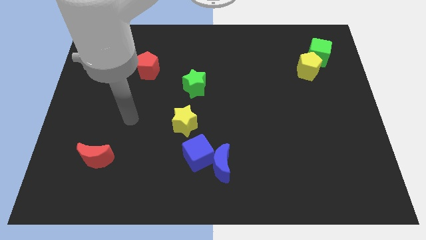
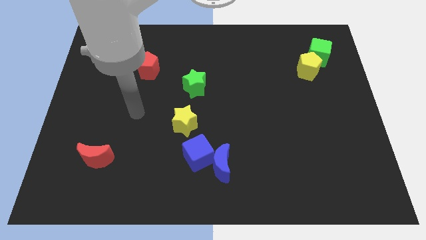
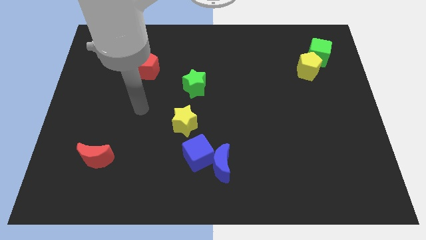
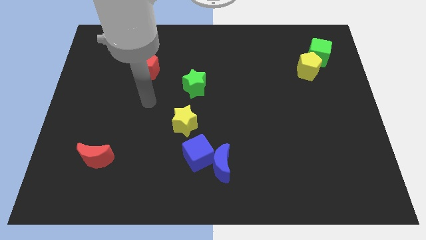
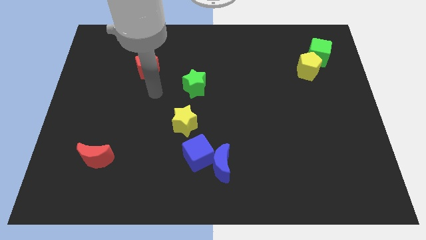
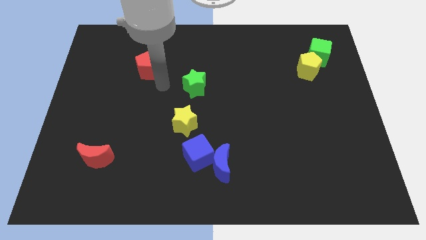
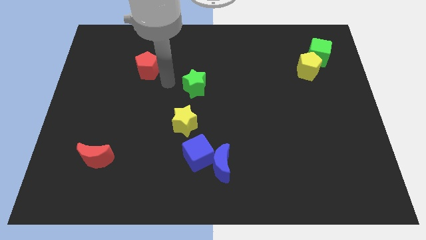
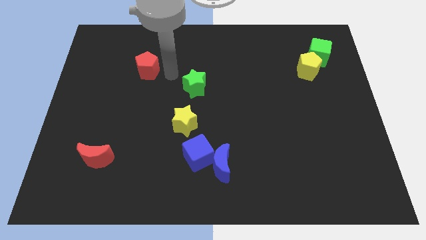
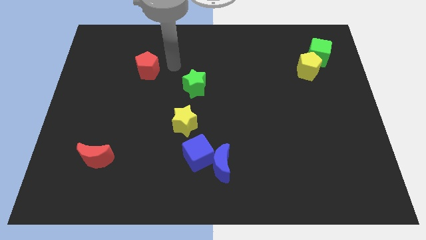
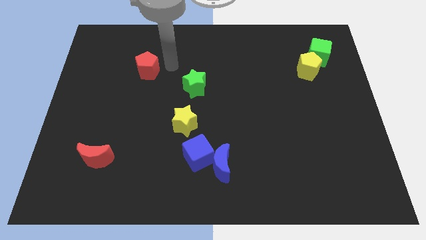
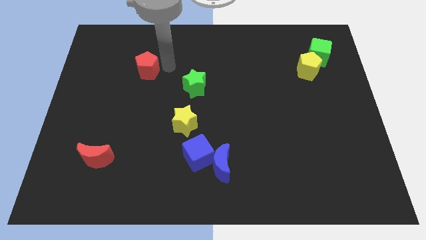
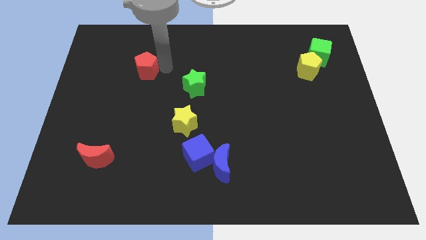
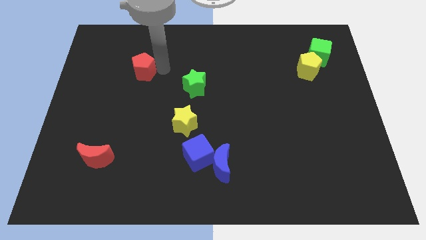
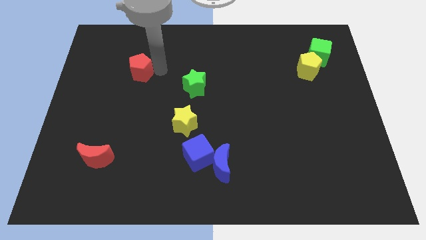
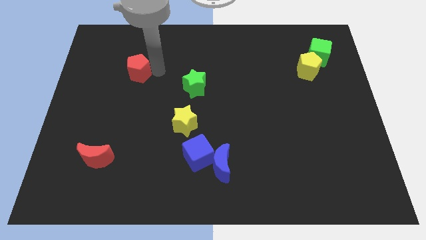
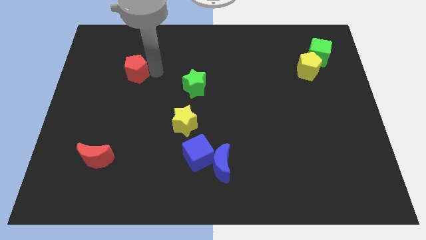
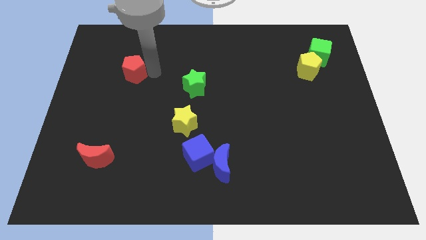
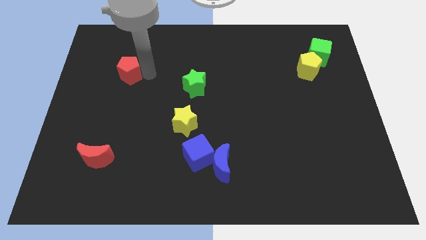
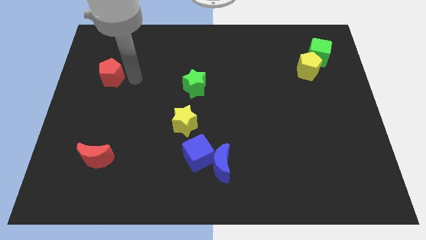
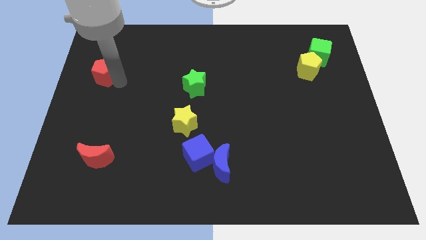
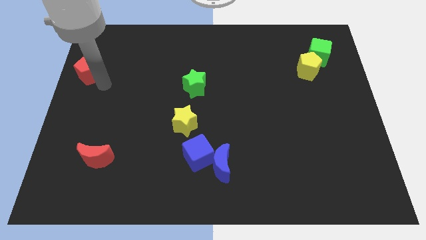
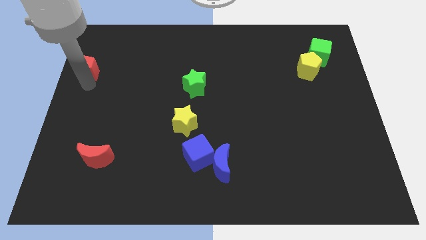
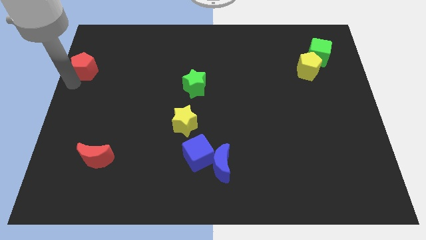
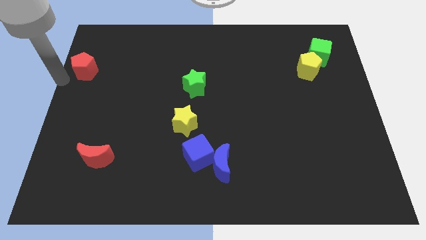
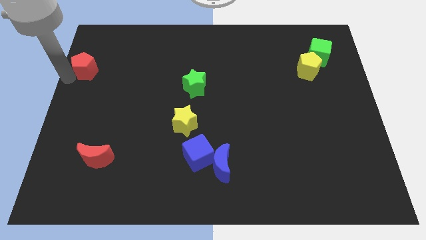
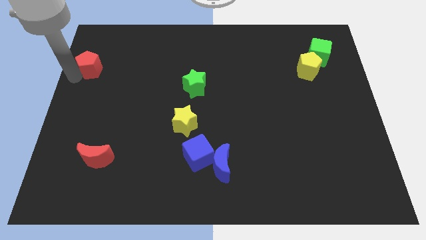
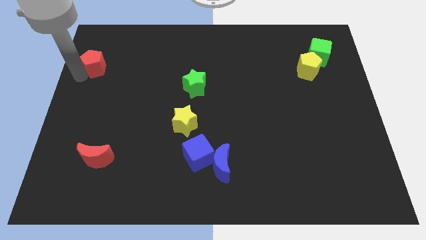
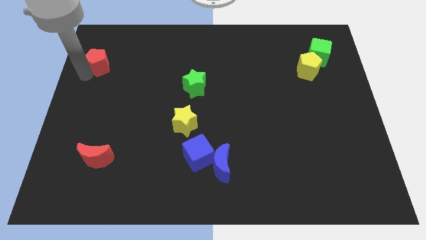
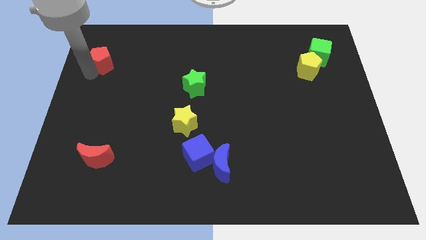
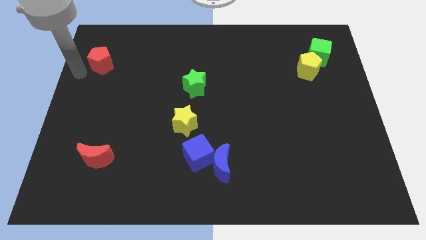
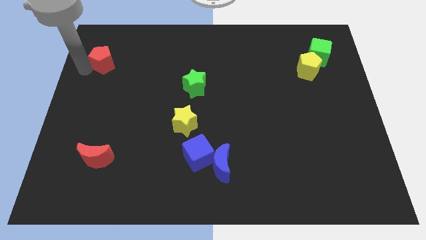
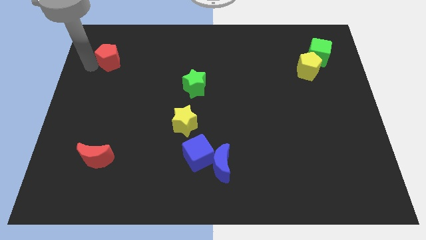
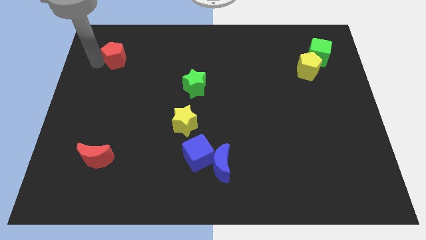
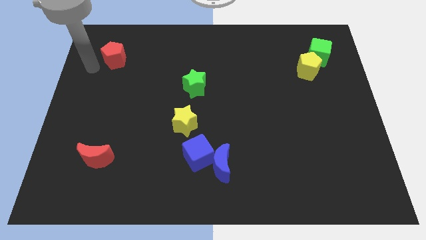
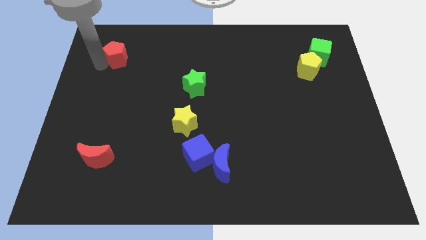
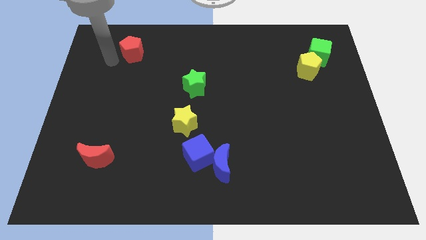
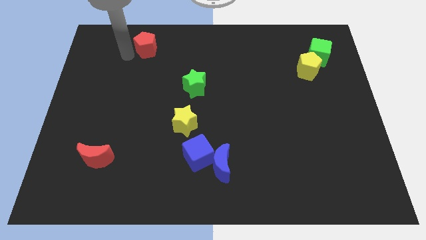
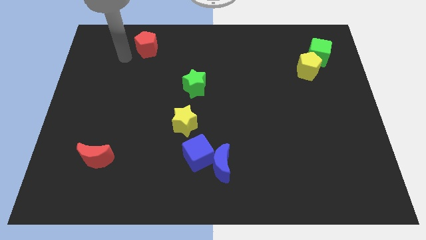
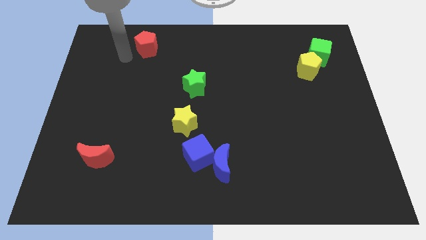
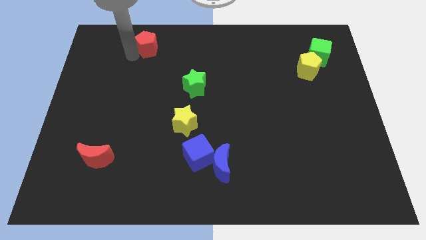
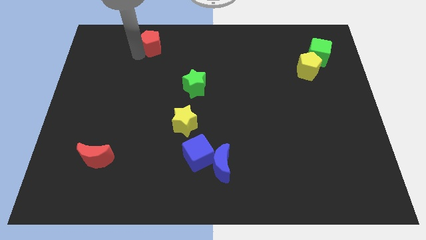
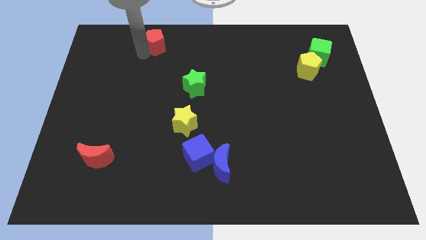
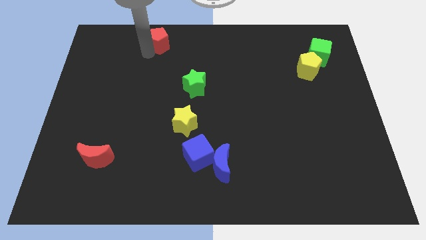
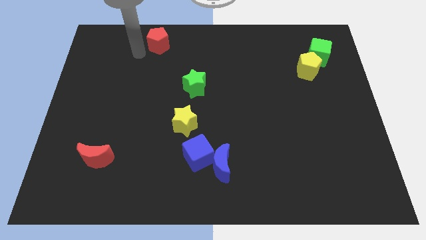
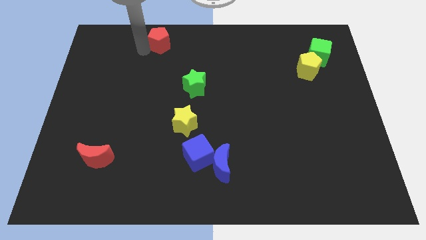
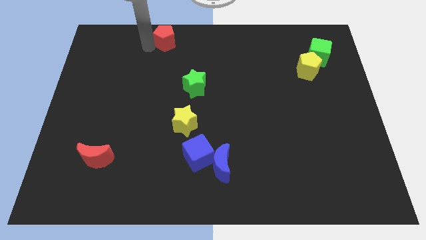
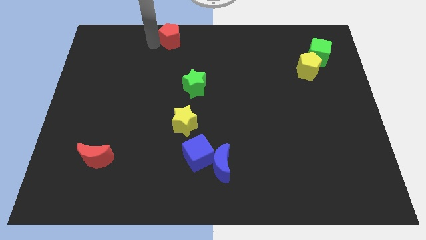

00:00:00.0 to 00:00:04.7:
move the red pentagon to the top

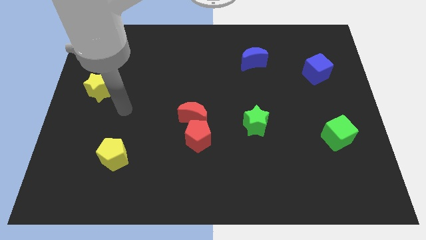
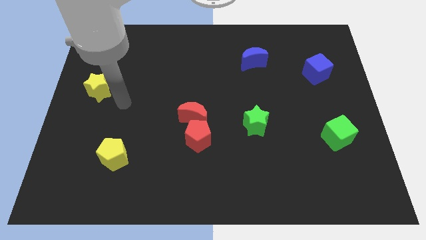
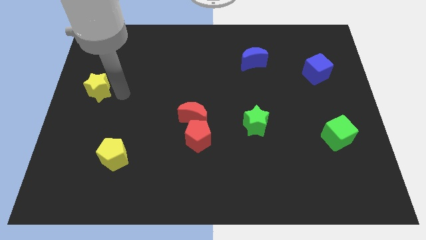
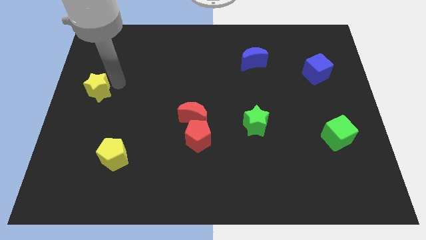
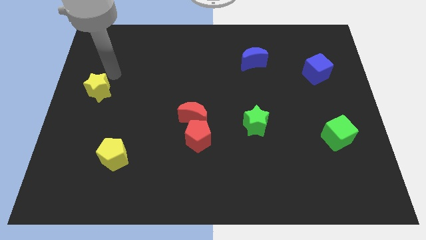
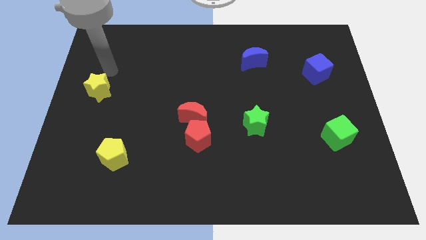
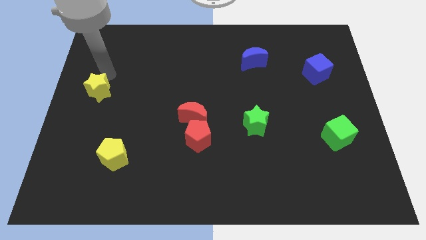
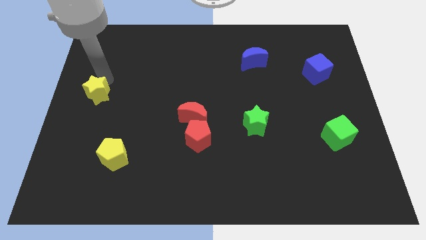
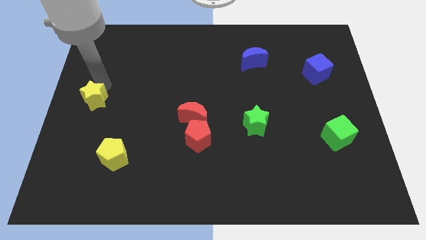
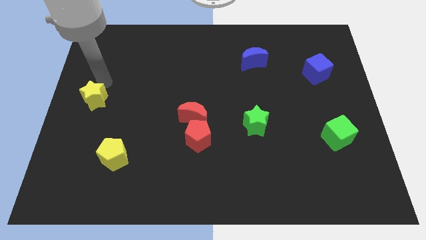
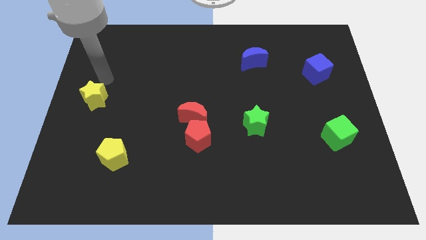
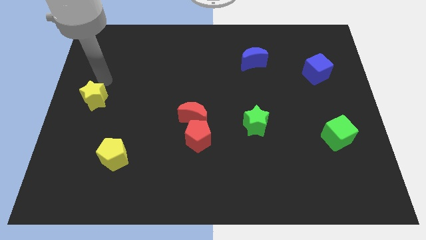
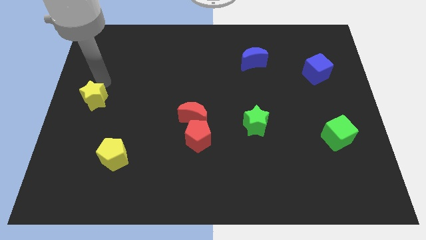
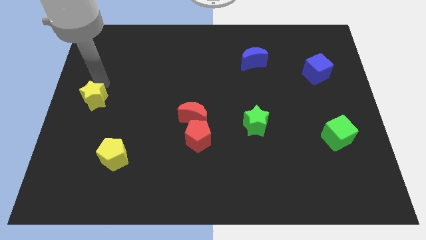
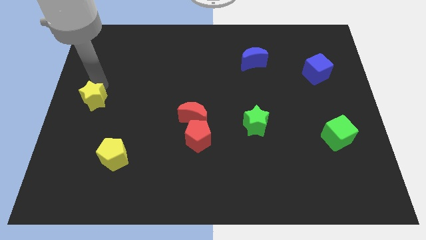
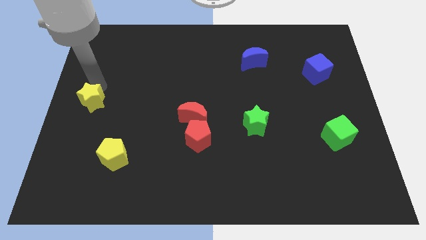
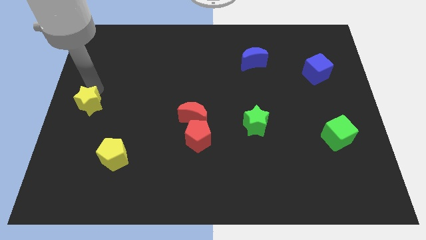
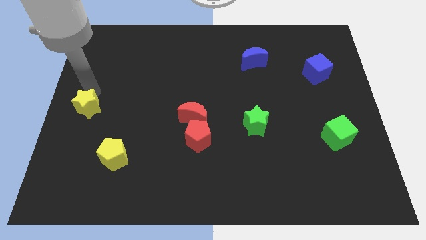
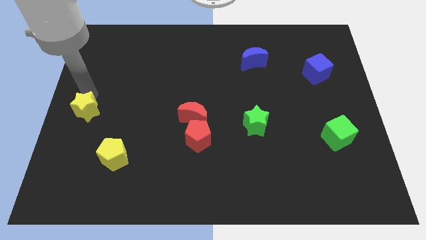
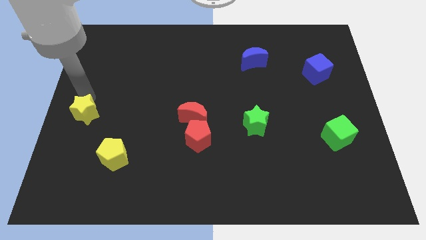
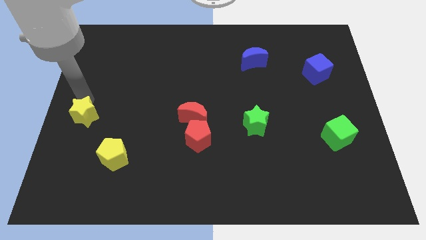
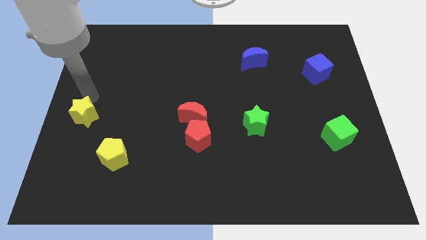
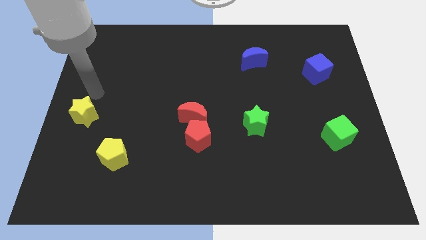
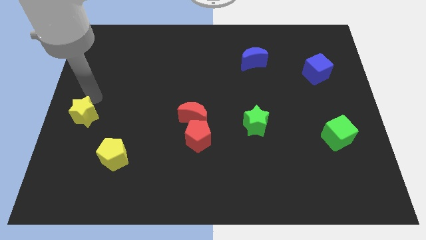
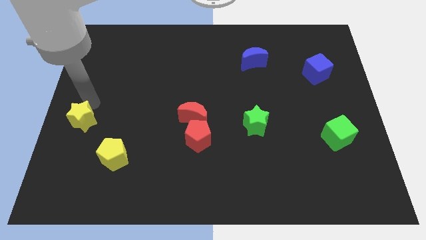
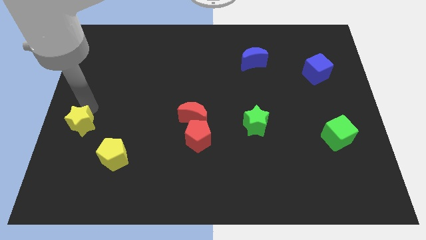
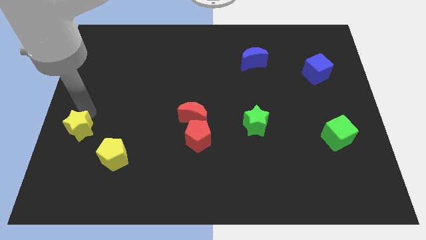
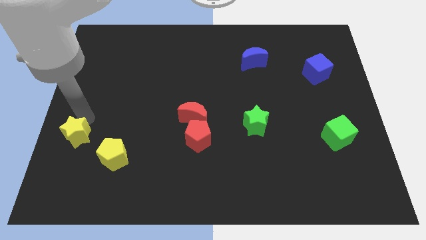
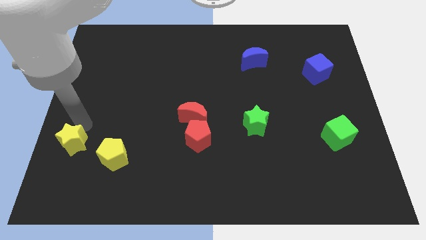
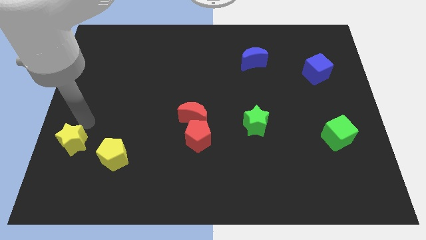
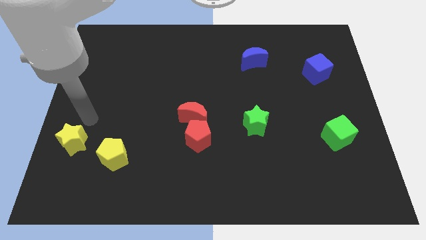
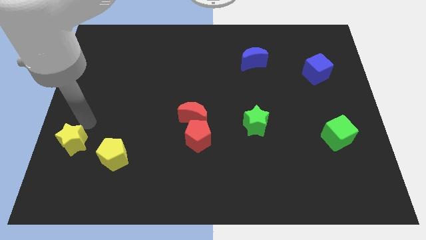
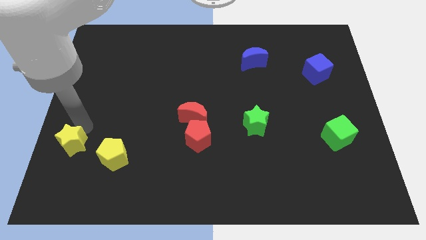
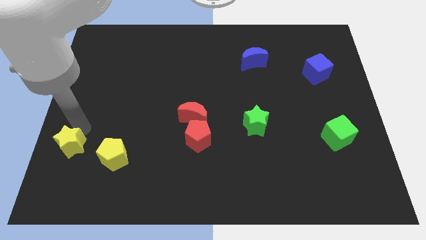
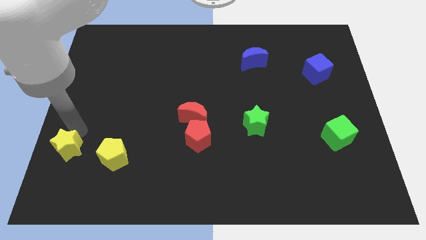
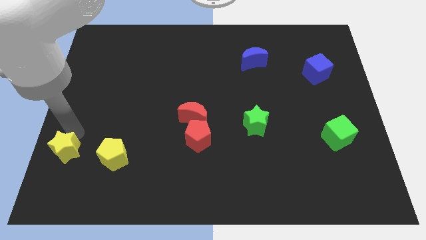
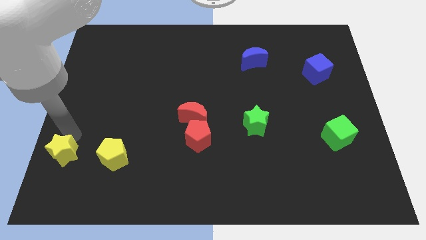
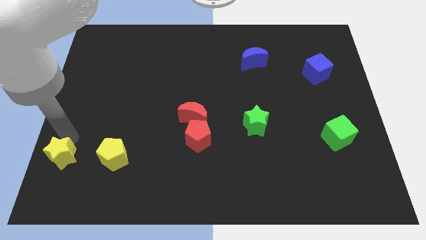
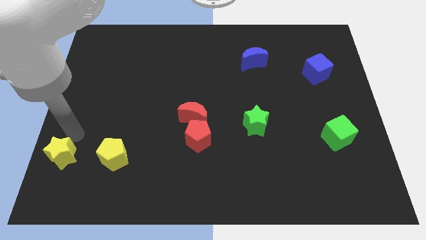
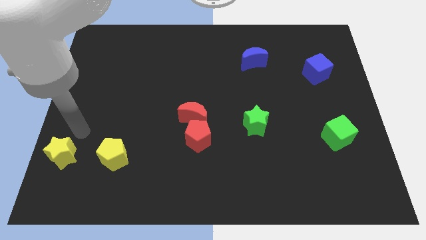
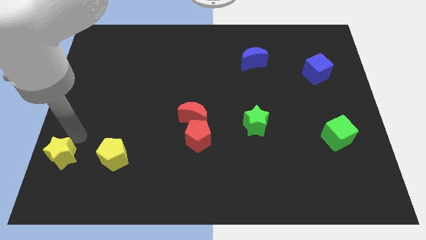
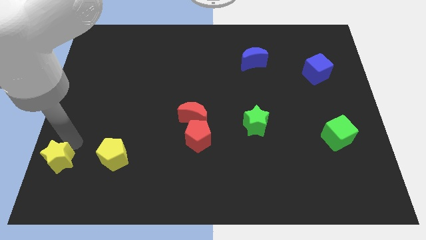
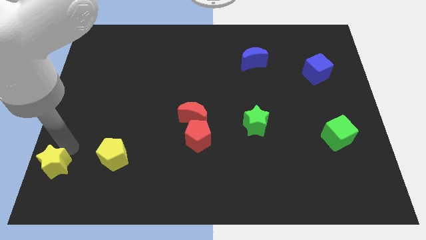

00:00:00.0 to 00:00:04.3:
push the yellow star to the bottom left
